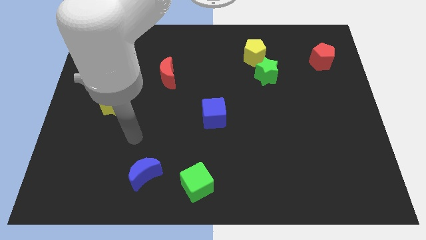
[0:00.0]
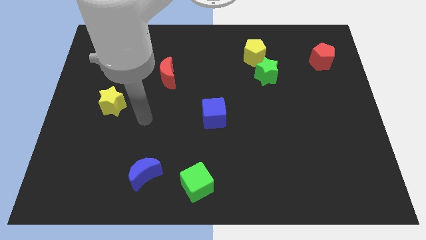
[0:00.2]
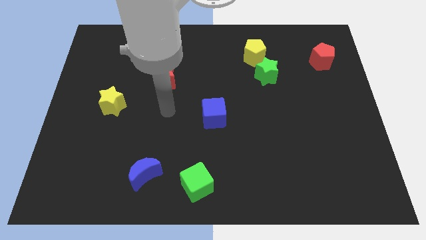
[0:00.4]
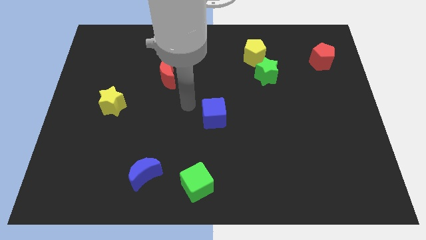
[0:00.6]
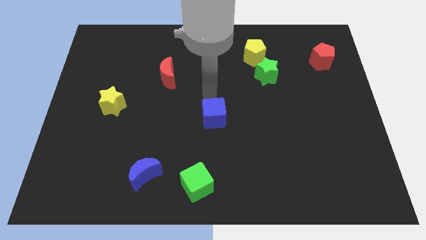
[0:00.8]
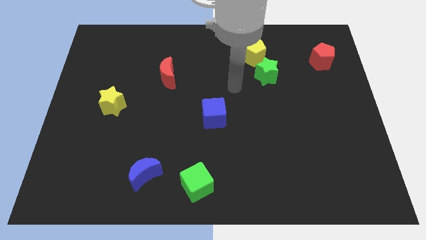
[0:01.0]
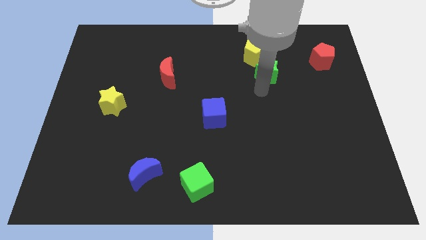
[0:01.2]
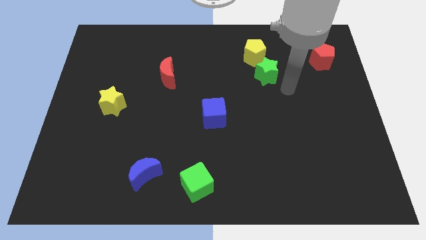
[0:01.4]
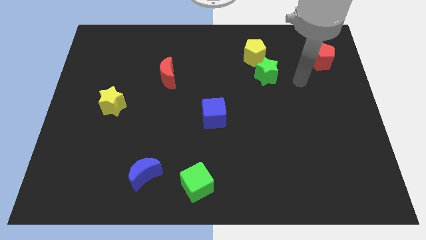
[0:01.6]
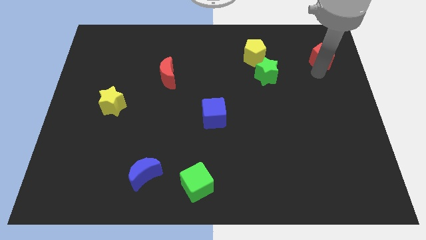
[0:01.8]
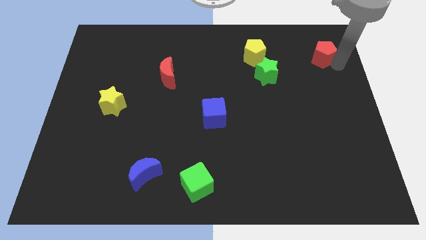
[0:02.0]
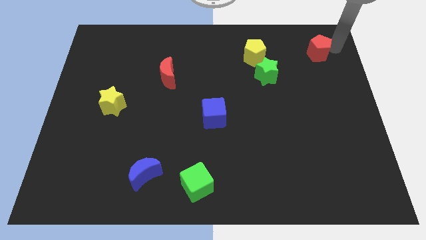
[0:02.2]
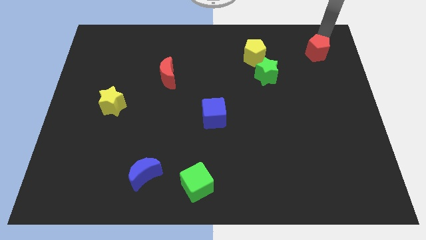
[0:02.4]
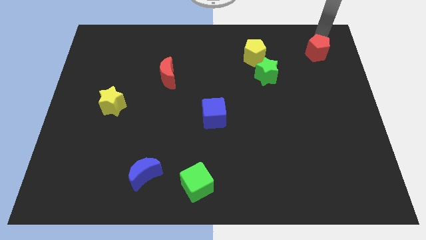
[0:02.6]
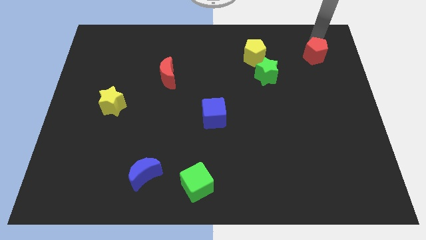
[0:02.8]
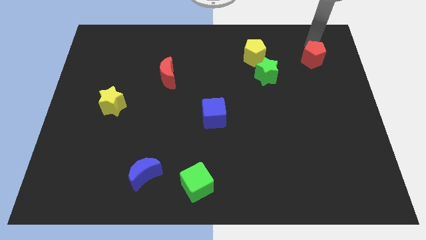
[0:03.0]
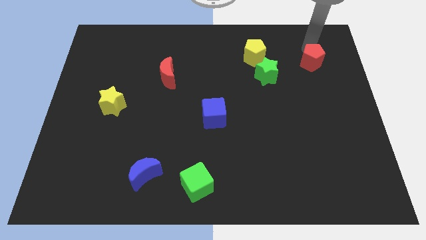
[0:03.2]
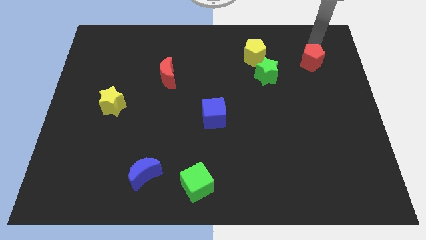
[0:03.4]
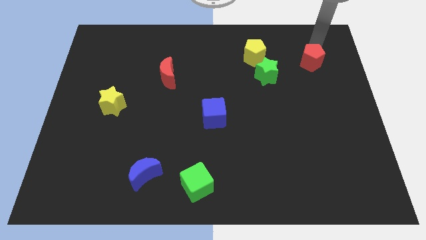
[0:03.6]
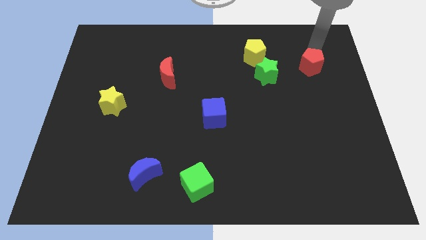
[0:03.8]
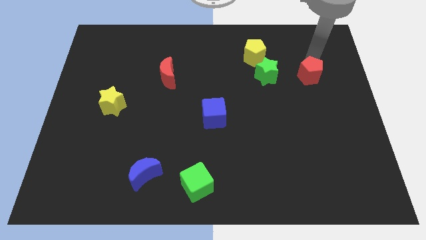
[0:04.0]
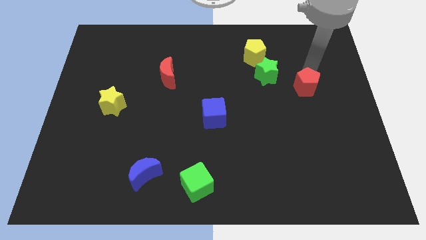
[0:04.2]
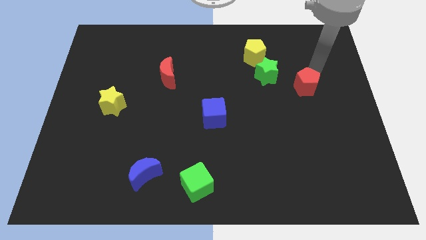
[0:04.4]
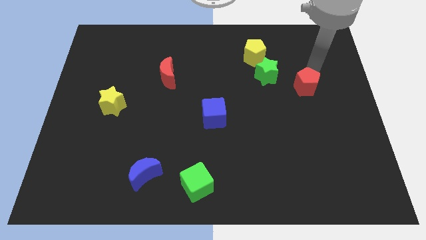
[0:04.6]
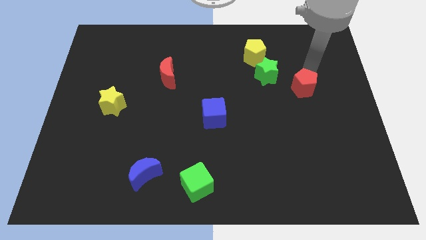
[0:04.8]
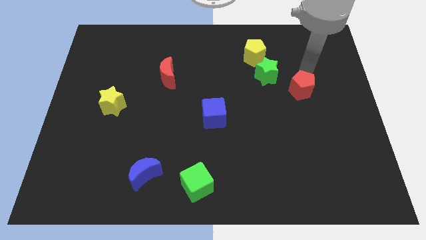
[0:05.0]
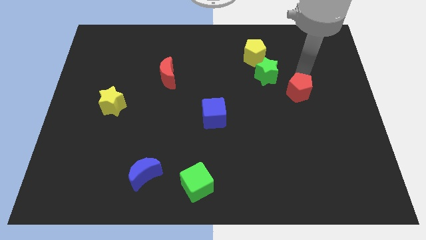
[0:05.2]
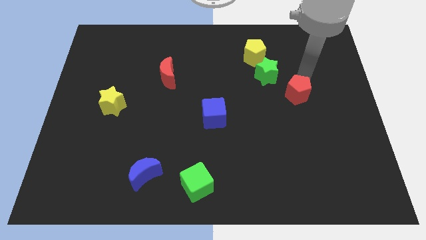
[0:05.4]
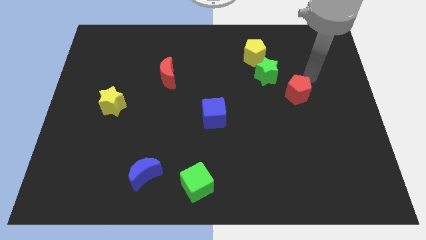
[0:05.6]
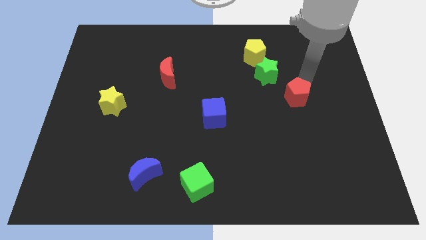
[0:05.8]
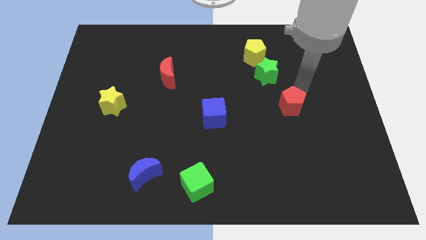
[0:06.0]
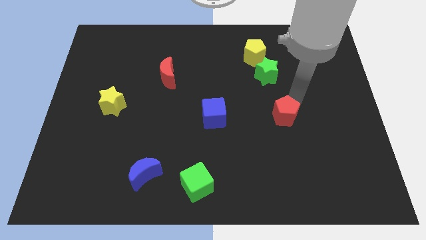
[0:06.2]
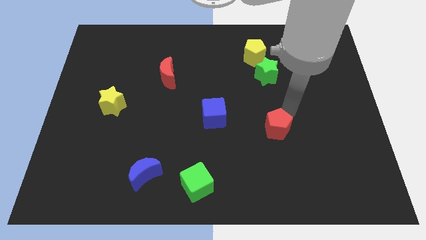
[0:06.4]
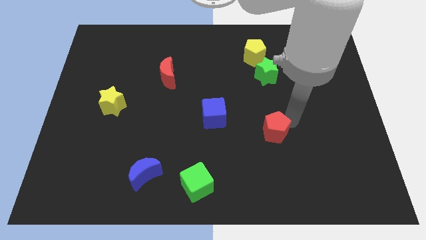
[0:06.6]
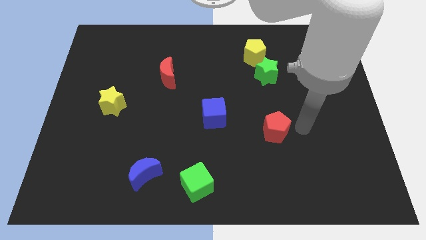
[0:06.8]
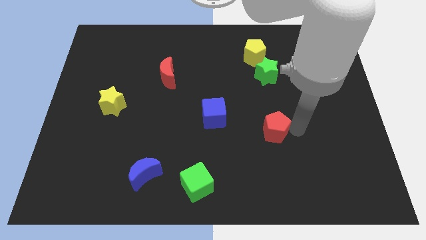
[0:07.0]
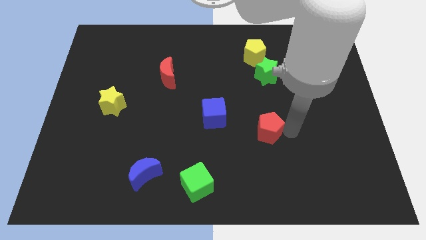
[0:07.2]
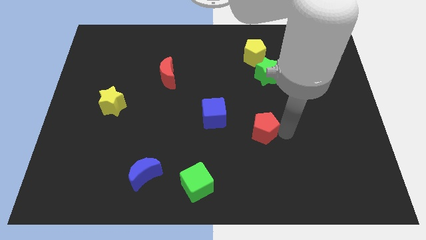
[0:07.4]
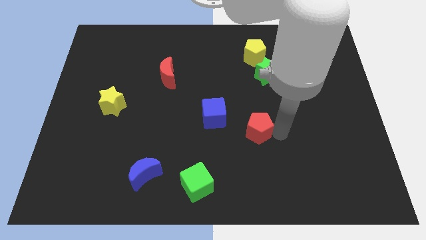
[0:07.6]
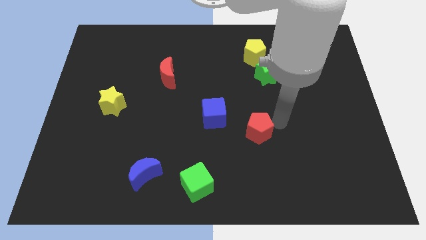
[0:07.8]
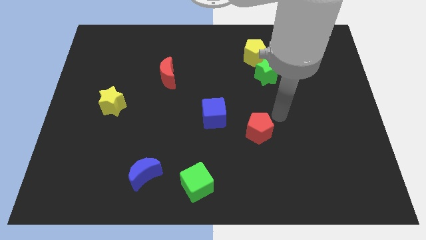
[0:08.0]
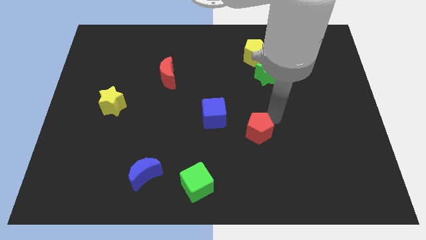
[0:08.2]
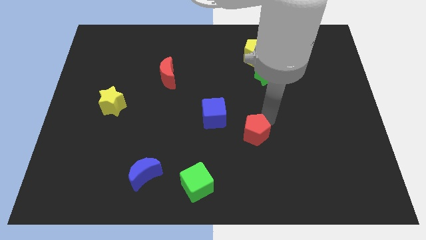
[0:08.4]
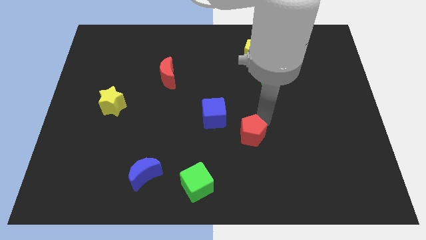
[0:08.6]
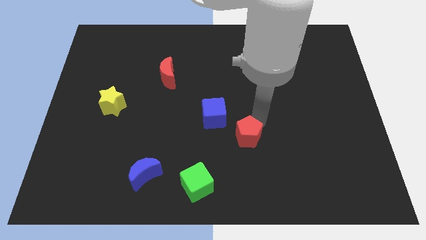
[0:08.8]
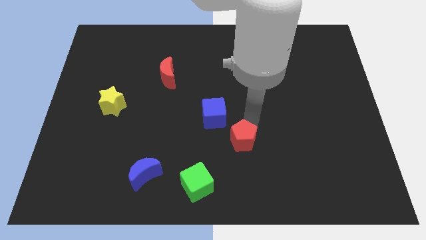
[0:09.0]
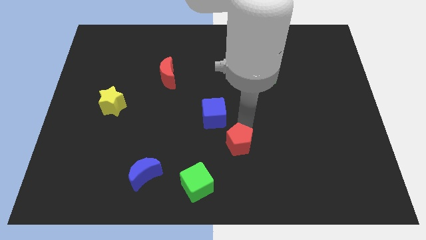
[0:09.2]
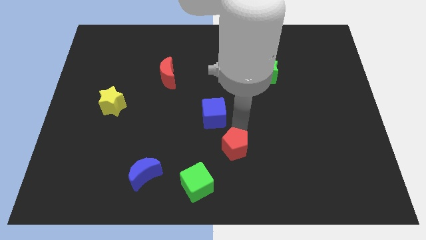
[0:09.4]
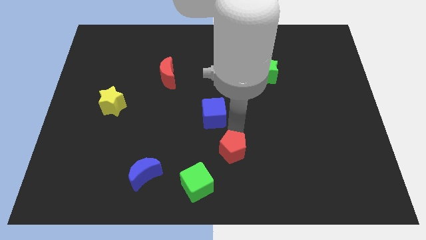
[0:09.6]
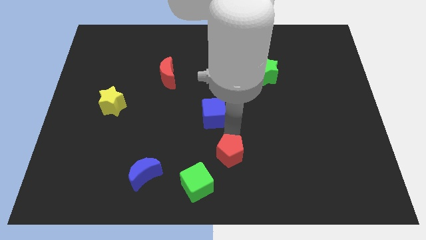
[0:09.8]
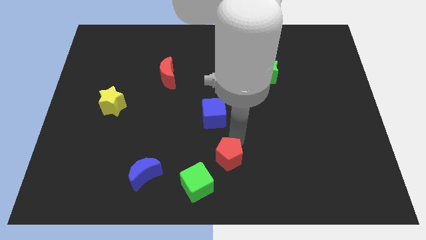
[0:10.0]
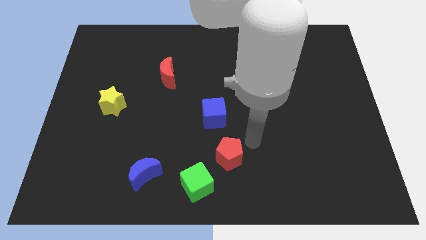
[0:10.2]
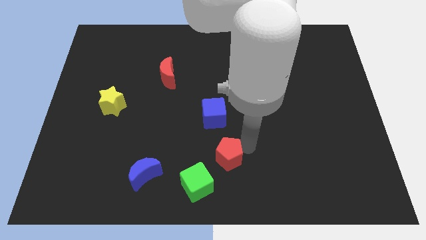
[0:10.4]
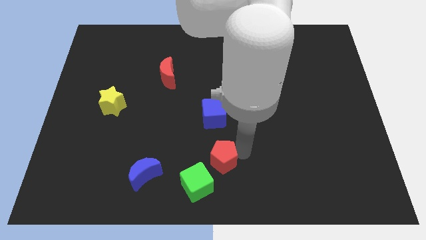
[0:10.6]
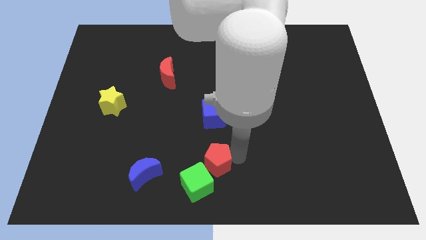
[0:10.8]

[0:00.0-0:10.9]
put the red pentagon just right of the blue moon

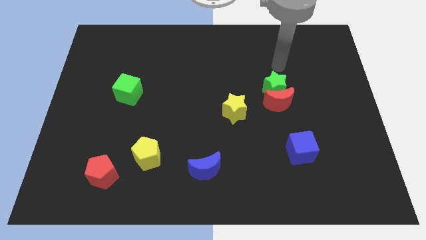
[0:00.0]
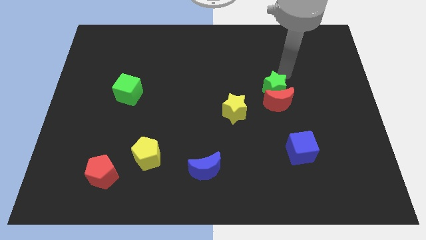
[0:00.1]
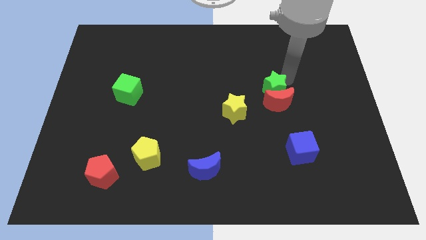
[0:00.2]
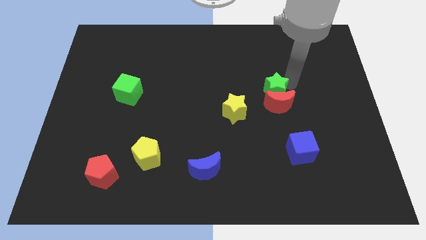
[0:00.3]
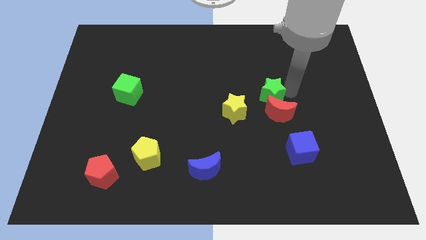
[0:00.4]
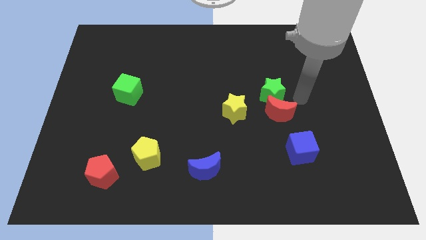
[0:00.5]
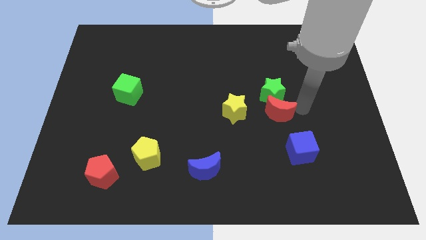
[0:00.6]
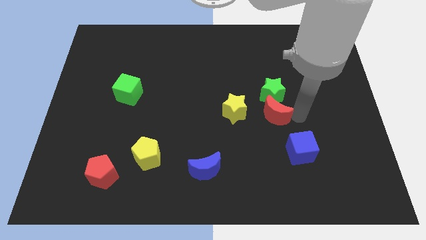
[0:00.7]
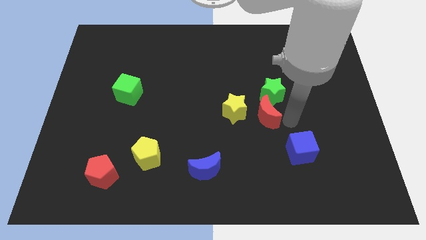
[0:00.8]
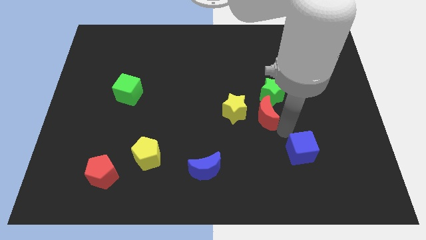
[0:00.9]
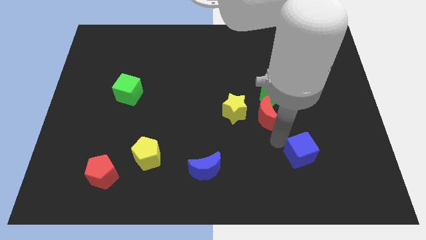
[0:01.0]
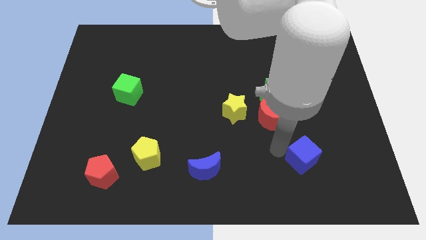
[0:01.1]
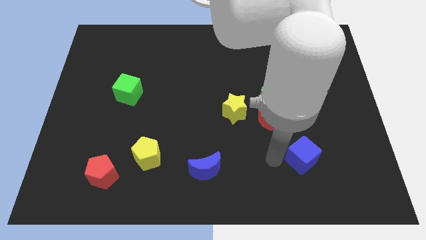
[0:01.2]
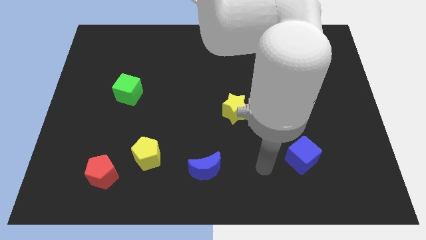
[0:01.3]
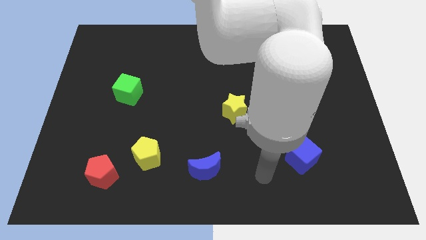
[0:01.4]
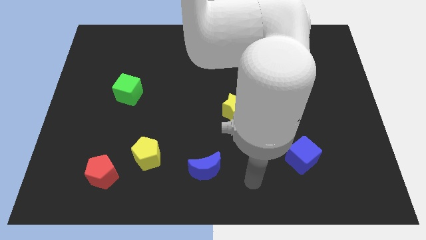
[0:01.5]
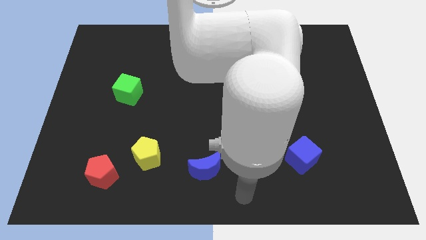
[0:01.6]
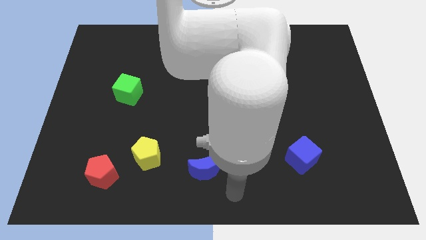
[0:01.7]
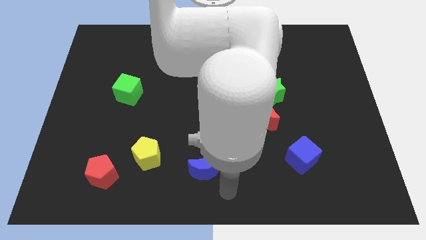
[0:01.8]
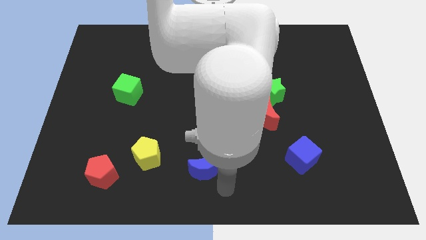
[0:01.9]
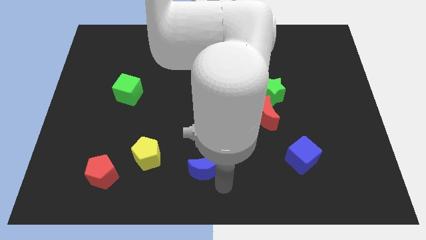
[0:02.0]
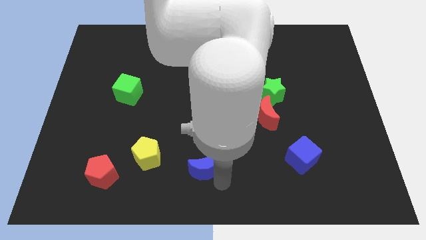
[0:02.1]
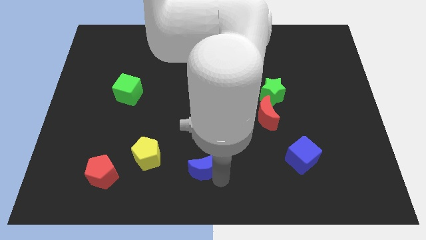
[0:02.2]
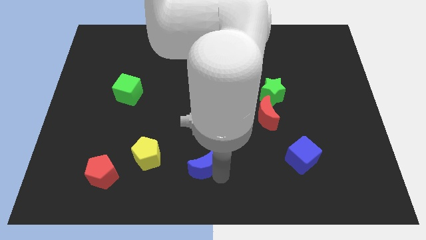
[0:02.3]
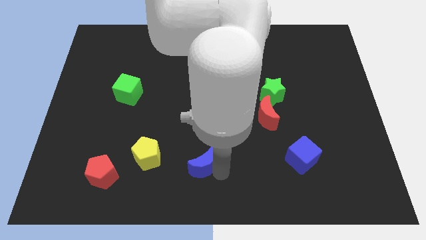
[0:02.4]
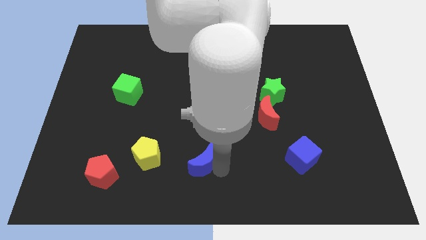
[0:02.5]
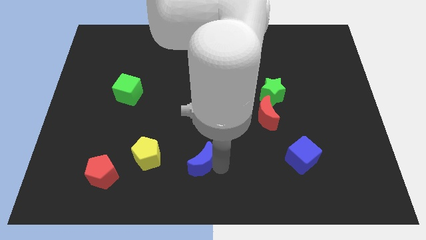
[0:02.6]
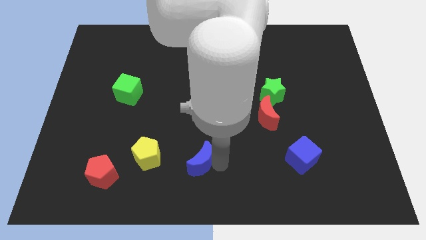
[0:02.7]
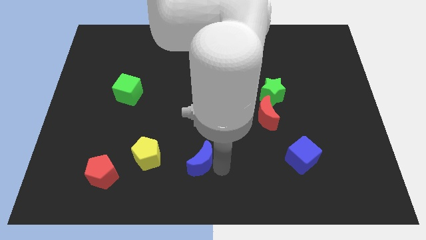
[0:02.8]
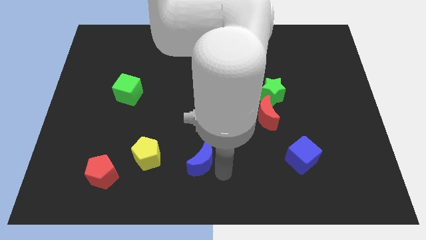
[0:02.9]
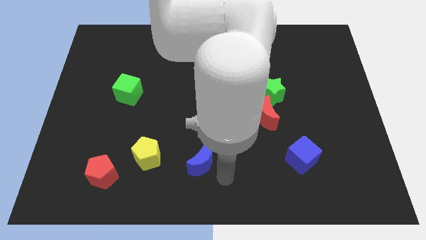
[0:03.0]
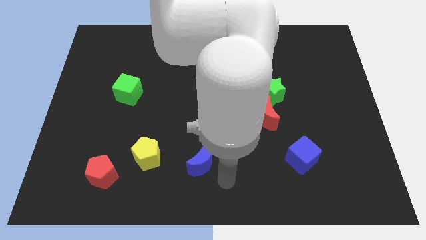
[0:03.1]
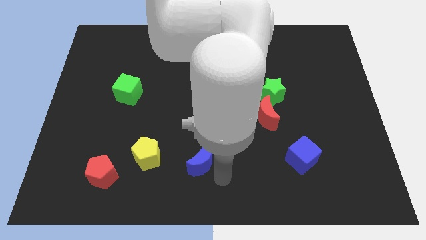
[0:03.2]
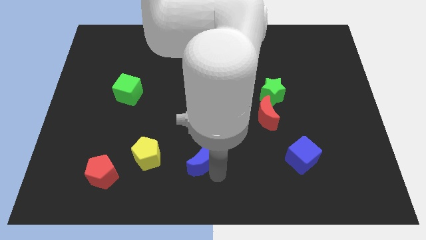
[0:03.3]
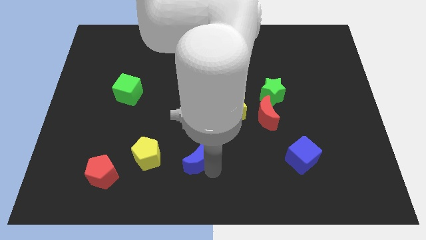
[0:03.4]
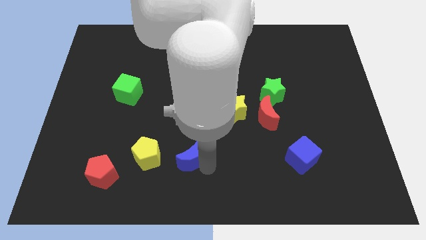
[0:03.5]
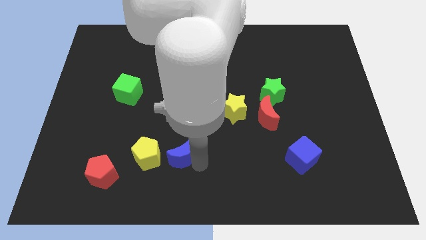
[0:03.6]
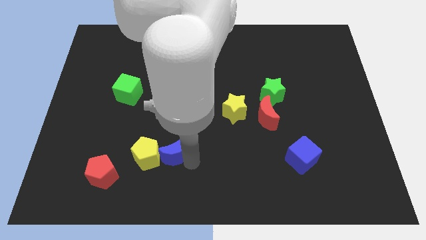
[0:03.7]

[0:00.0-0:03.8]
put the blue moon to the top right of the yellow pentagon
